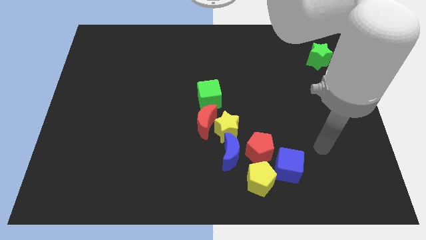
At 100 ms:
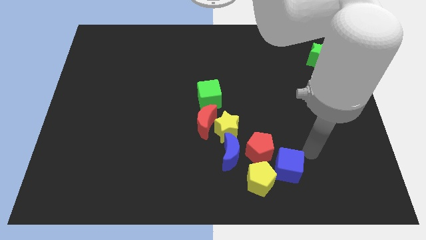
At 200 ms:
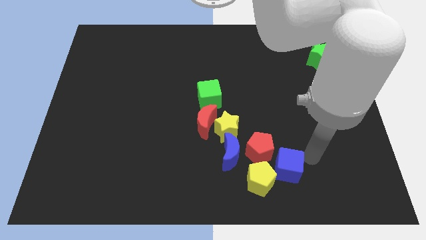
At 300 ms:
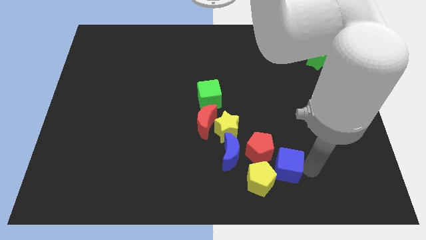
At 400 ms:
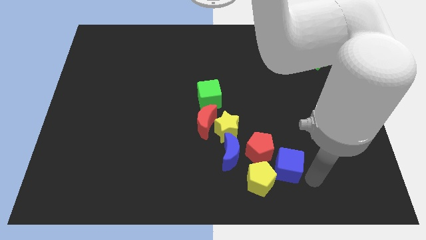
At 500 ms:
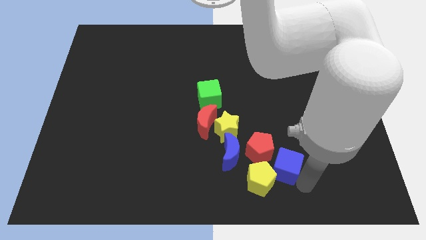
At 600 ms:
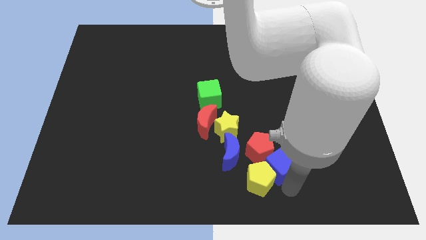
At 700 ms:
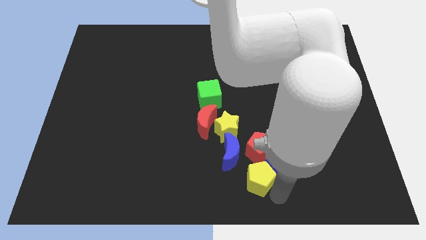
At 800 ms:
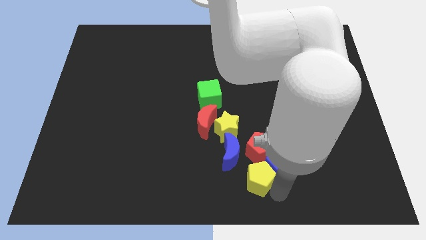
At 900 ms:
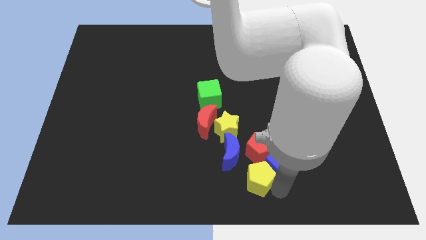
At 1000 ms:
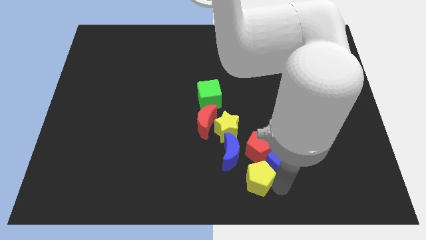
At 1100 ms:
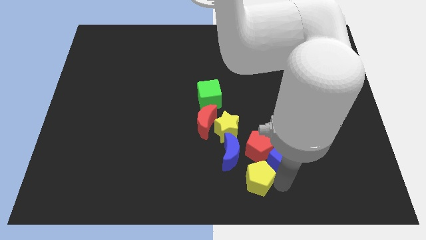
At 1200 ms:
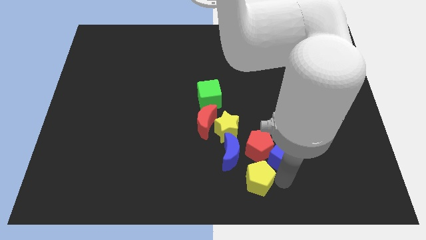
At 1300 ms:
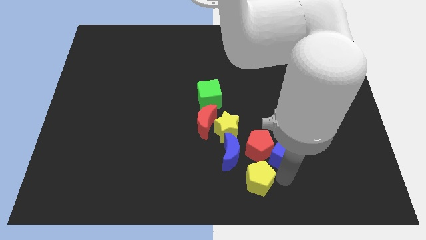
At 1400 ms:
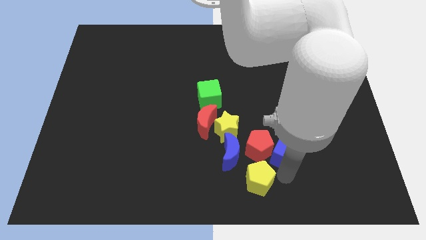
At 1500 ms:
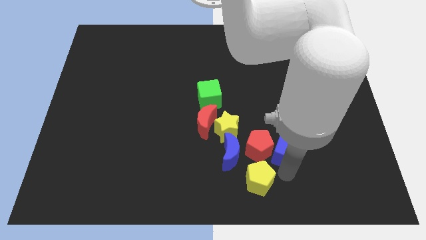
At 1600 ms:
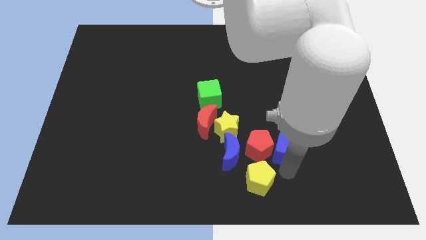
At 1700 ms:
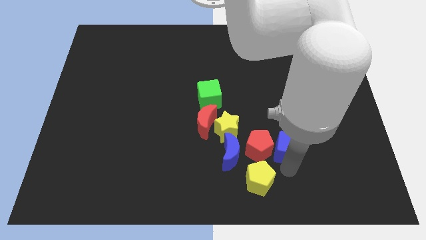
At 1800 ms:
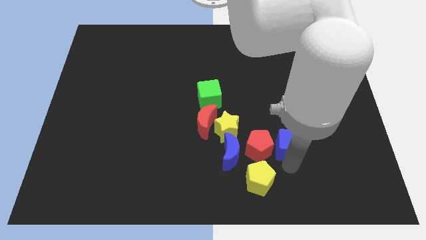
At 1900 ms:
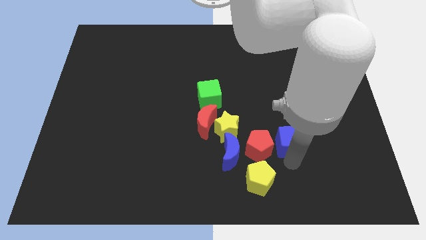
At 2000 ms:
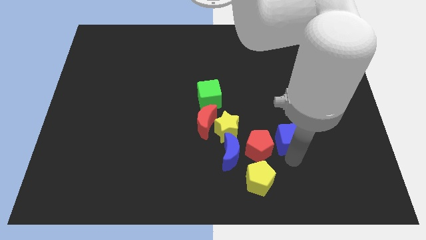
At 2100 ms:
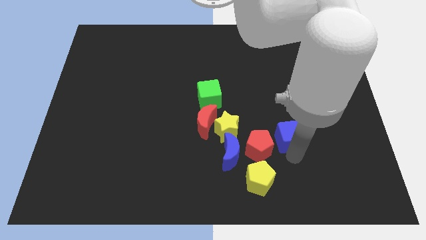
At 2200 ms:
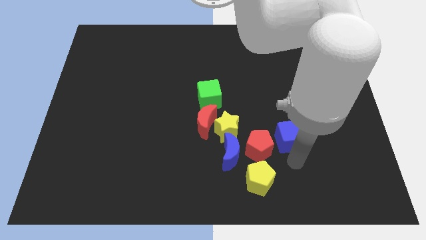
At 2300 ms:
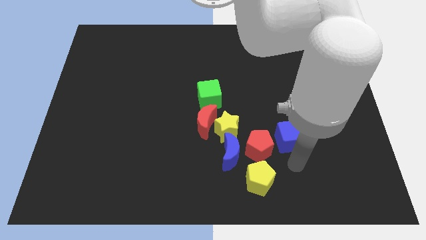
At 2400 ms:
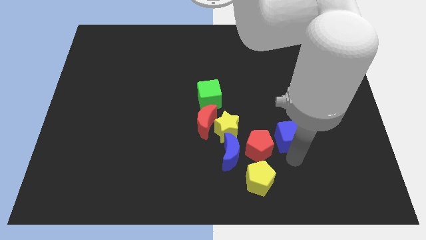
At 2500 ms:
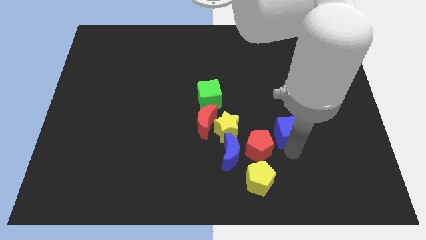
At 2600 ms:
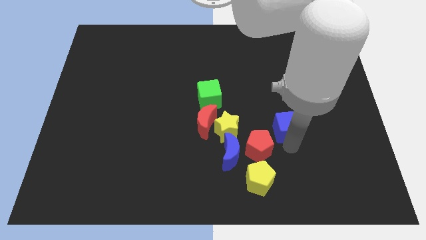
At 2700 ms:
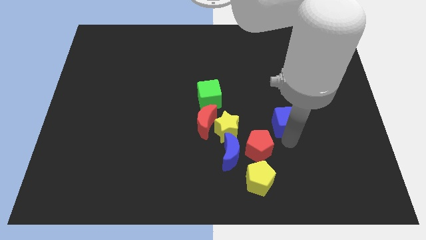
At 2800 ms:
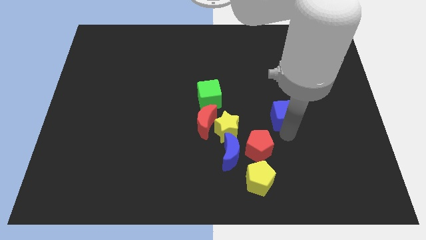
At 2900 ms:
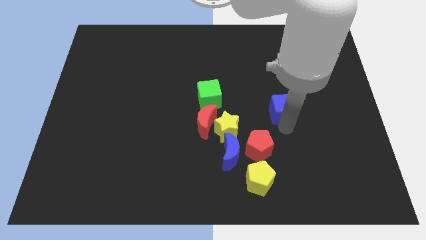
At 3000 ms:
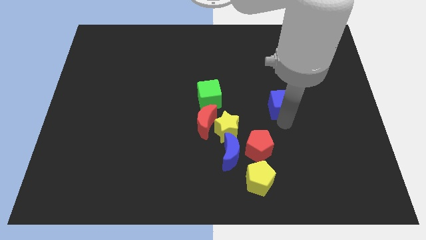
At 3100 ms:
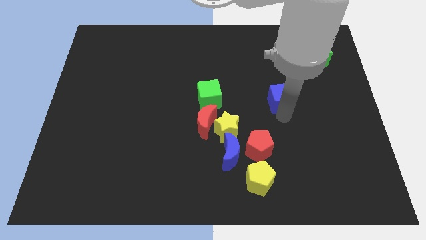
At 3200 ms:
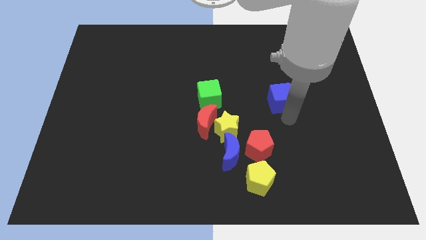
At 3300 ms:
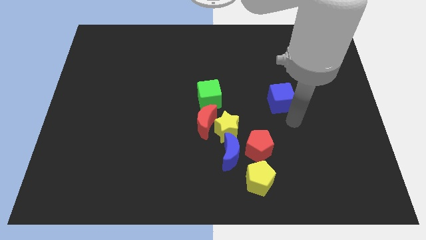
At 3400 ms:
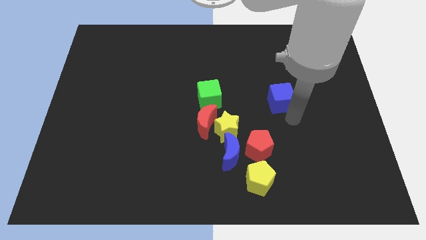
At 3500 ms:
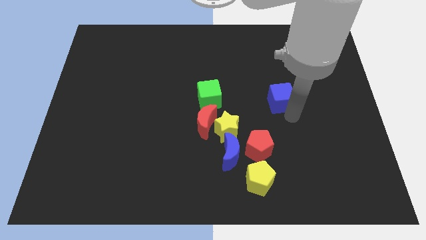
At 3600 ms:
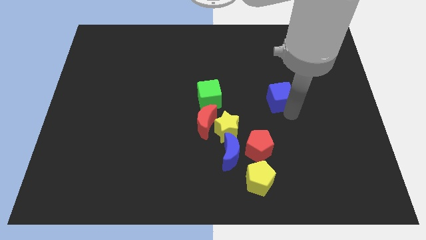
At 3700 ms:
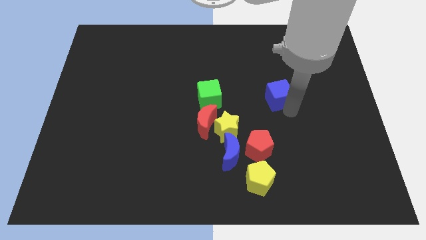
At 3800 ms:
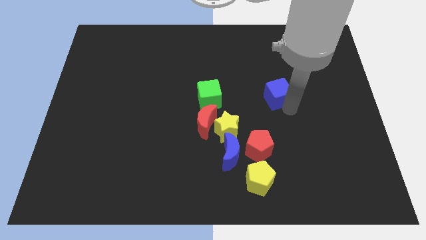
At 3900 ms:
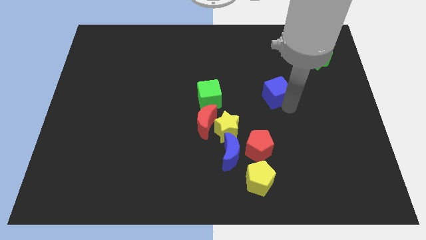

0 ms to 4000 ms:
move the blue cube upwards

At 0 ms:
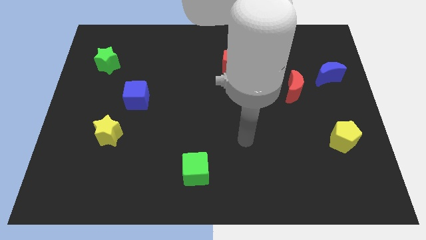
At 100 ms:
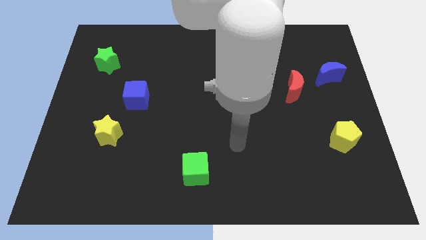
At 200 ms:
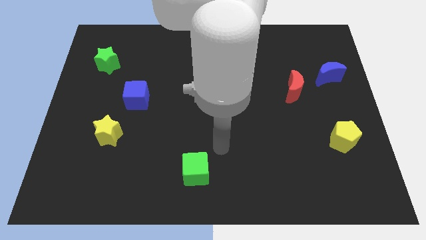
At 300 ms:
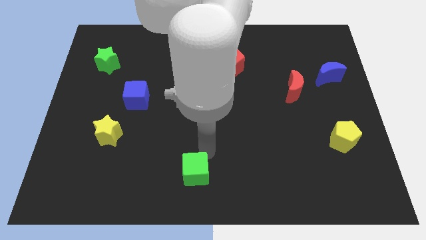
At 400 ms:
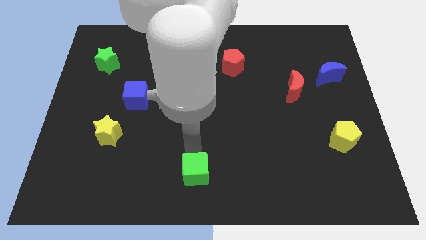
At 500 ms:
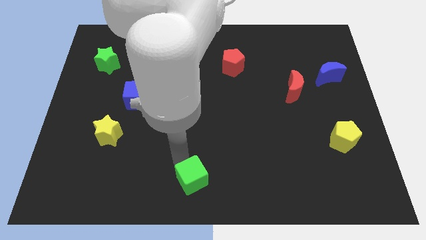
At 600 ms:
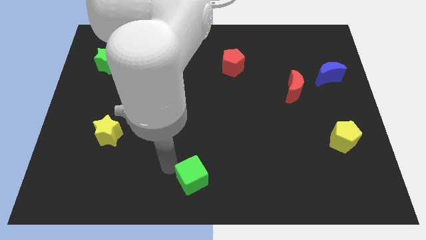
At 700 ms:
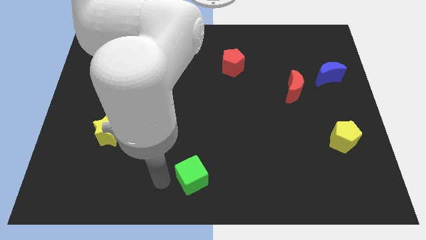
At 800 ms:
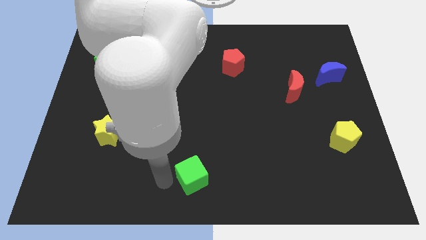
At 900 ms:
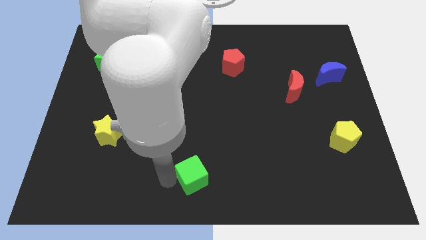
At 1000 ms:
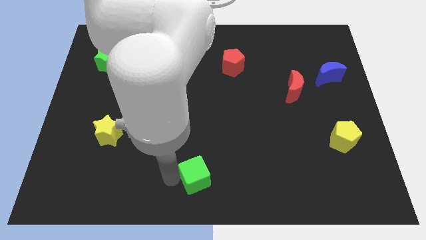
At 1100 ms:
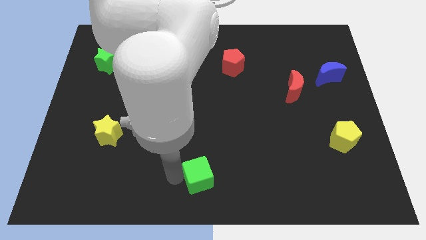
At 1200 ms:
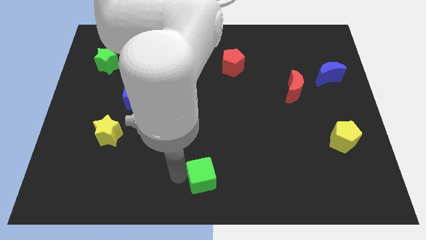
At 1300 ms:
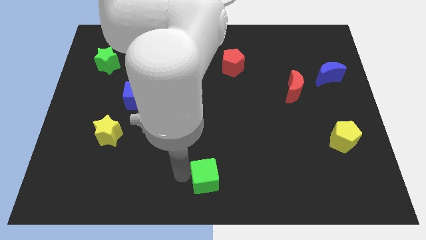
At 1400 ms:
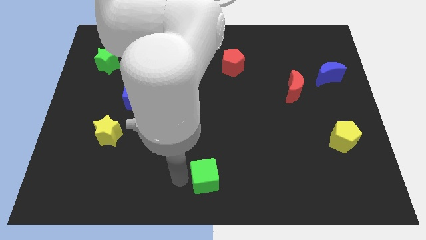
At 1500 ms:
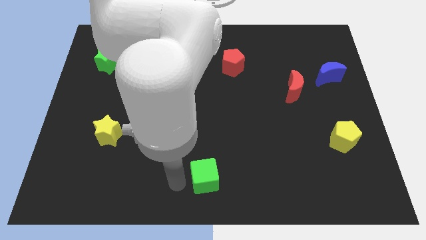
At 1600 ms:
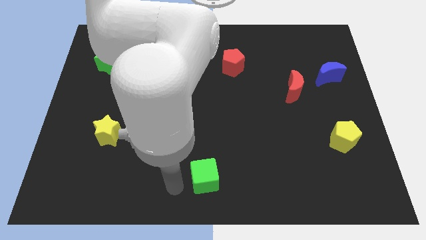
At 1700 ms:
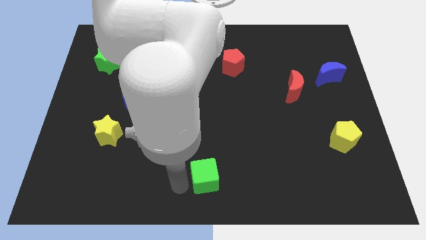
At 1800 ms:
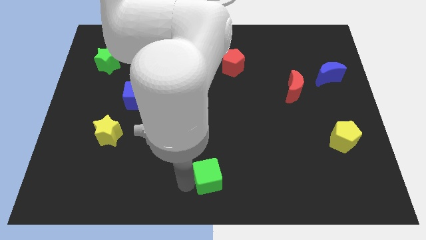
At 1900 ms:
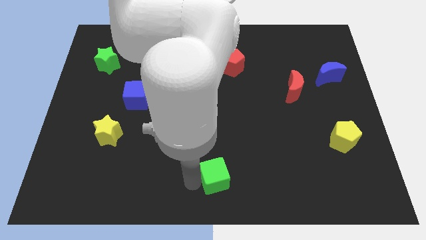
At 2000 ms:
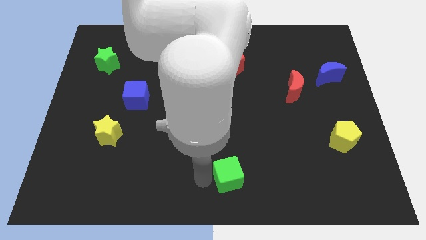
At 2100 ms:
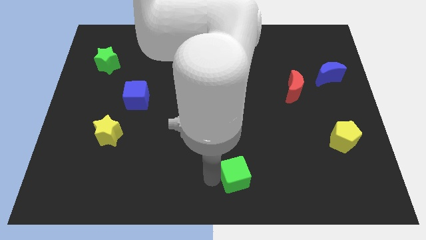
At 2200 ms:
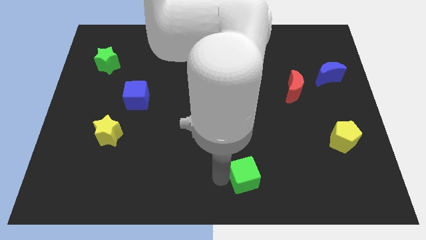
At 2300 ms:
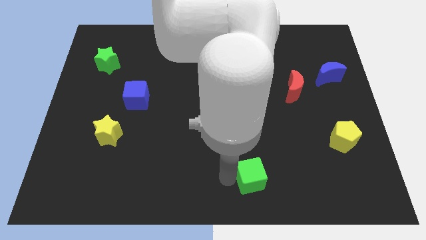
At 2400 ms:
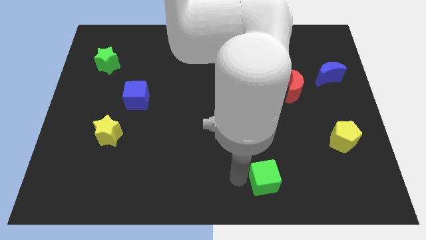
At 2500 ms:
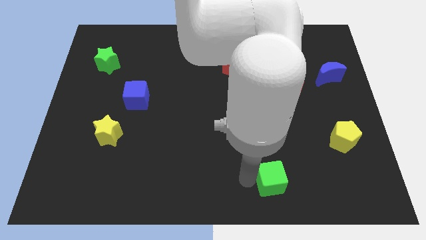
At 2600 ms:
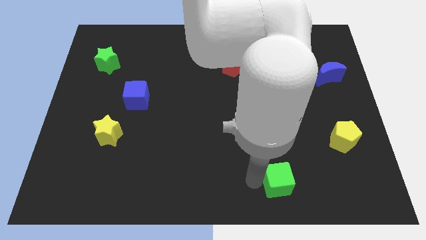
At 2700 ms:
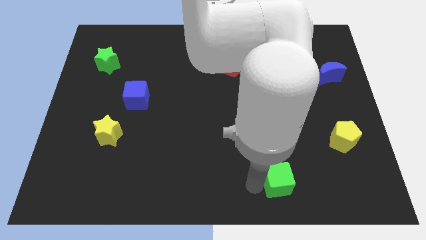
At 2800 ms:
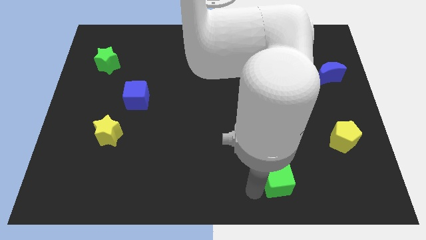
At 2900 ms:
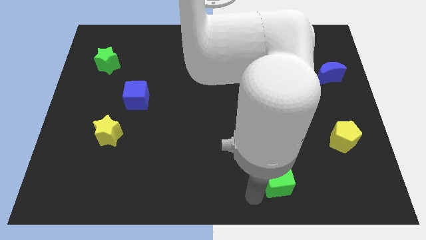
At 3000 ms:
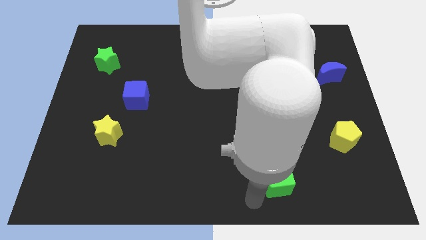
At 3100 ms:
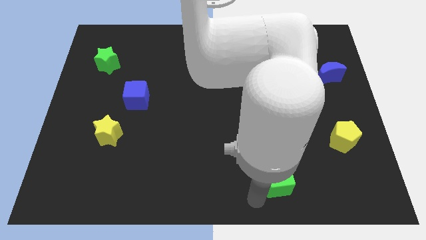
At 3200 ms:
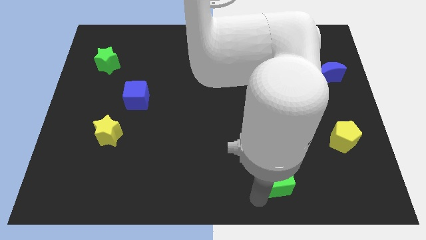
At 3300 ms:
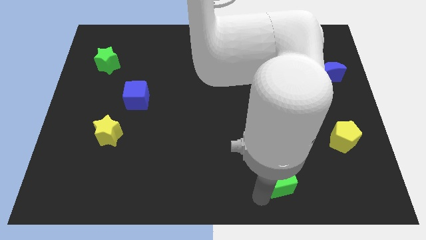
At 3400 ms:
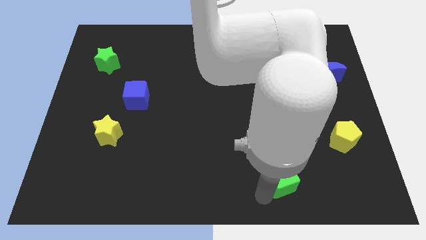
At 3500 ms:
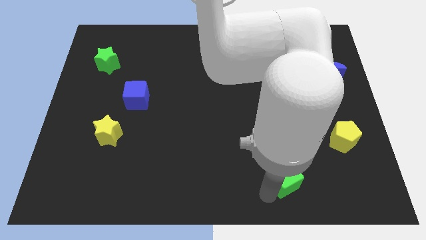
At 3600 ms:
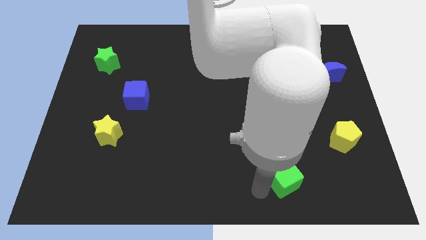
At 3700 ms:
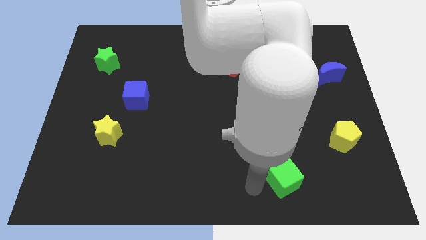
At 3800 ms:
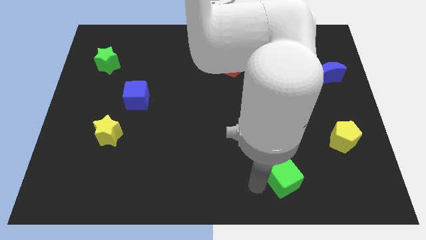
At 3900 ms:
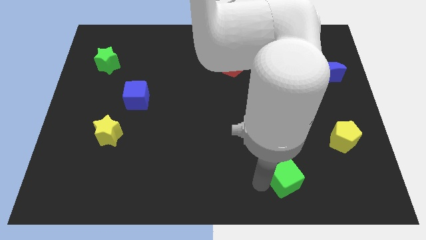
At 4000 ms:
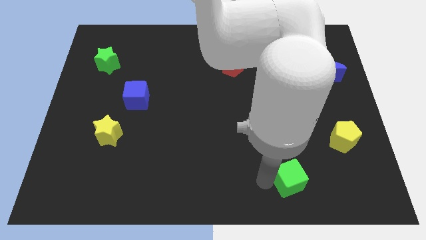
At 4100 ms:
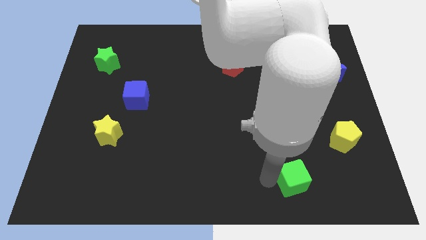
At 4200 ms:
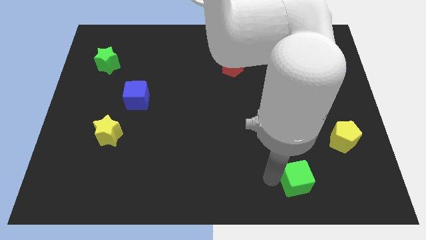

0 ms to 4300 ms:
slide the green cube to the right
